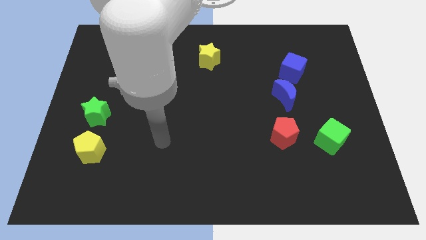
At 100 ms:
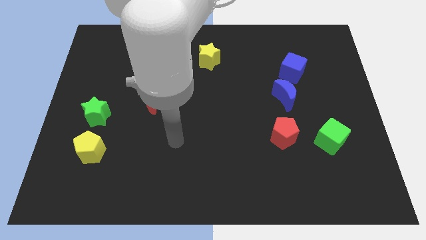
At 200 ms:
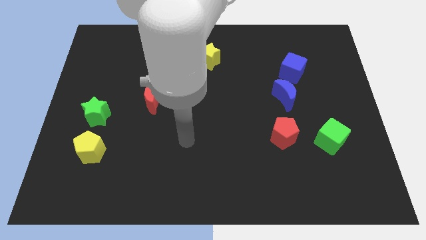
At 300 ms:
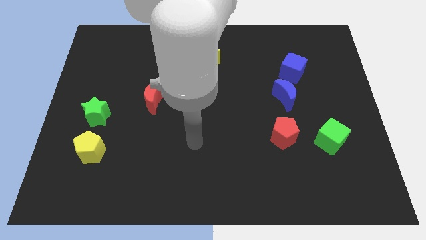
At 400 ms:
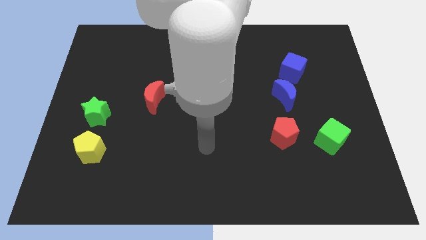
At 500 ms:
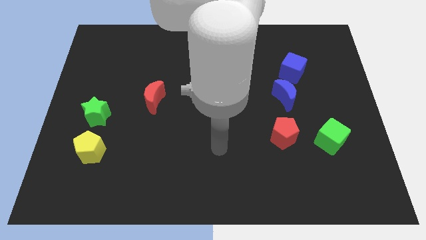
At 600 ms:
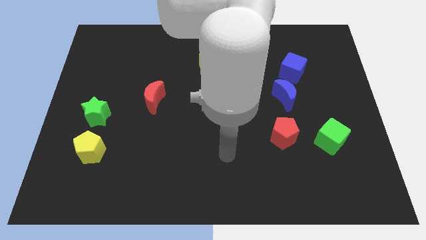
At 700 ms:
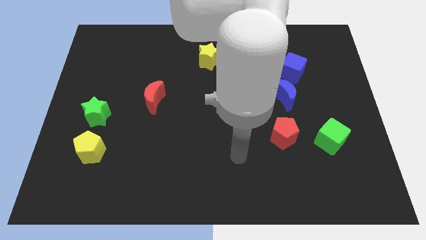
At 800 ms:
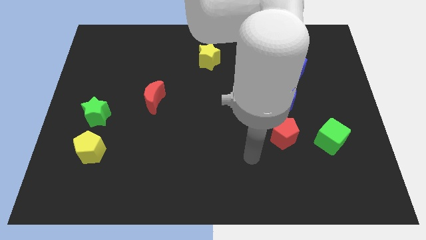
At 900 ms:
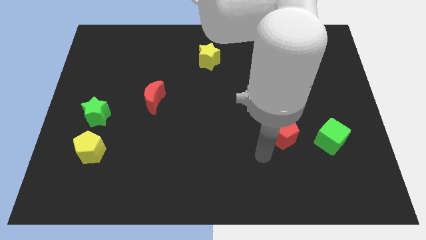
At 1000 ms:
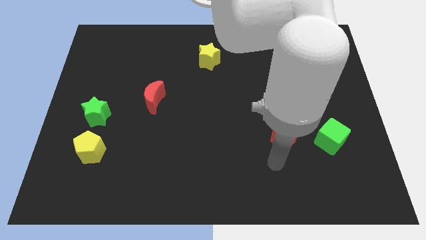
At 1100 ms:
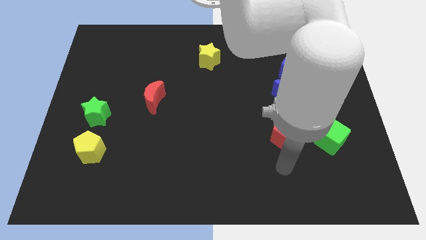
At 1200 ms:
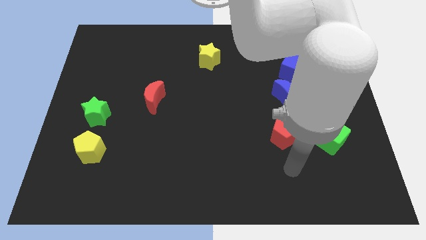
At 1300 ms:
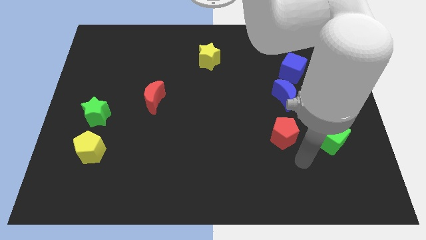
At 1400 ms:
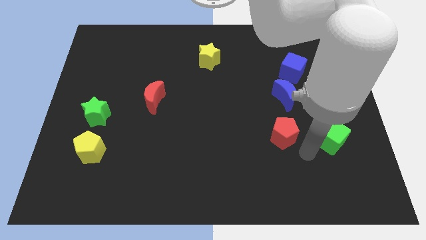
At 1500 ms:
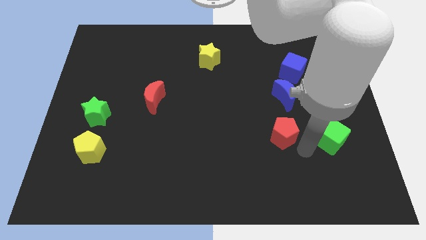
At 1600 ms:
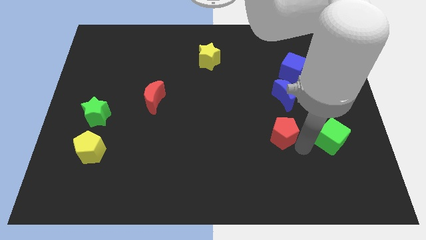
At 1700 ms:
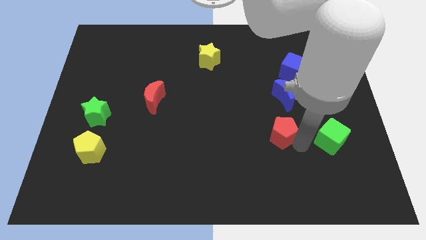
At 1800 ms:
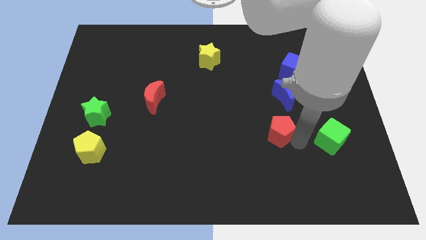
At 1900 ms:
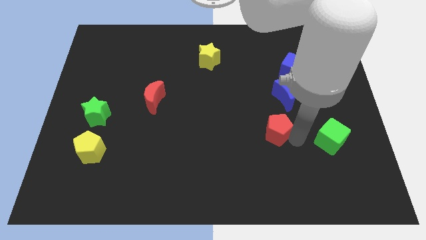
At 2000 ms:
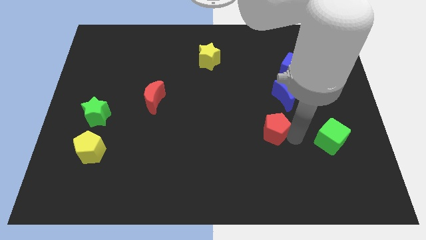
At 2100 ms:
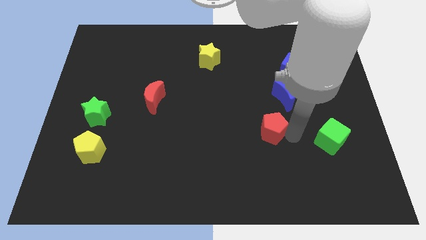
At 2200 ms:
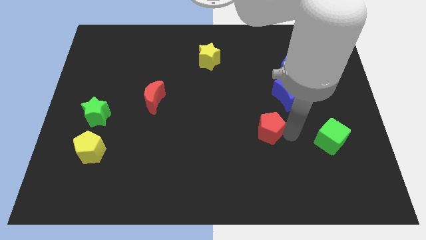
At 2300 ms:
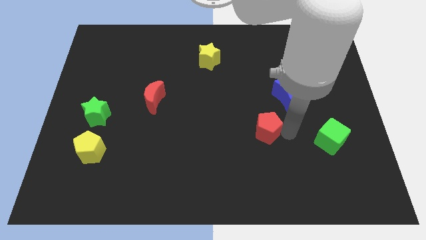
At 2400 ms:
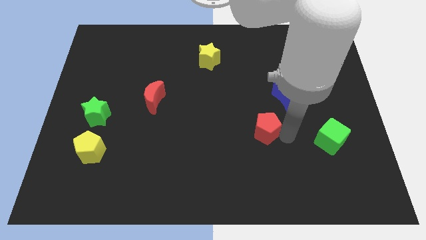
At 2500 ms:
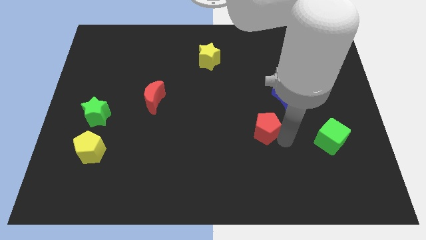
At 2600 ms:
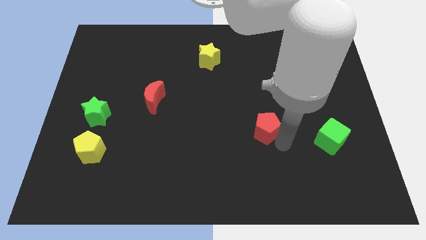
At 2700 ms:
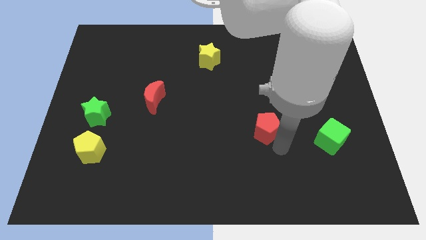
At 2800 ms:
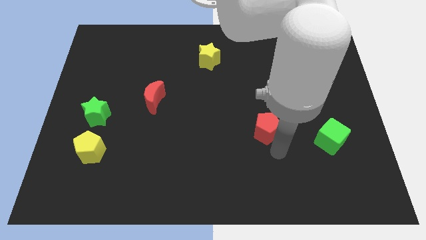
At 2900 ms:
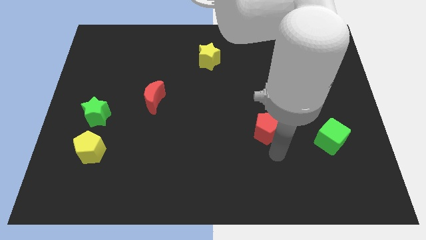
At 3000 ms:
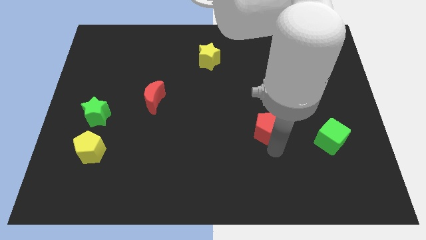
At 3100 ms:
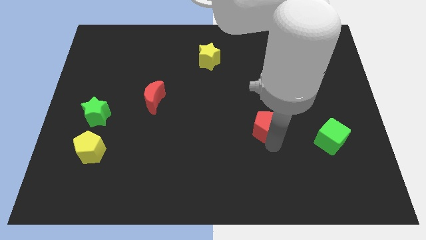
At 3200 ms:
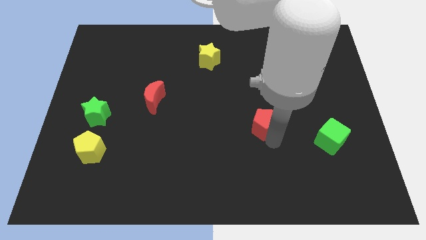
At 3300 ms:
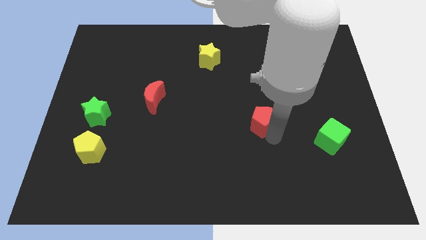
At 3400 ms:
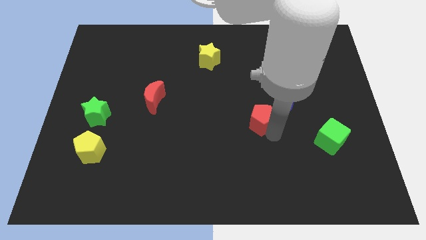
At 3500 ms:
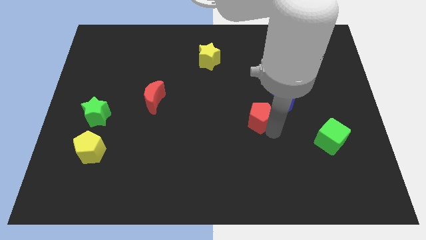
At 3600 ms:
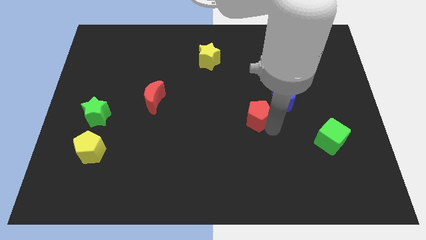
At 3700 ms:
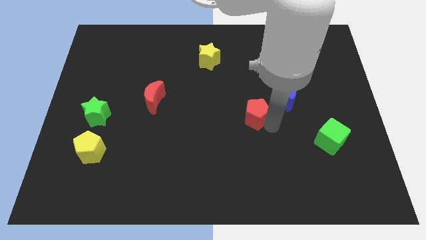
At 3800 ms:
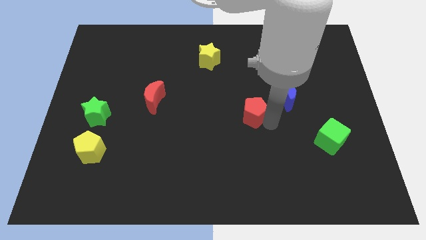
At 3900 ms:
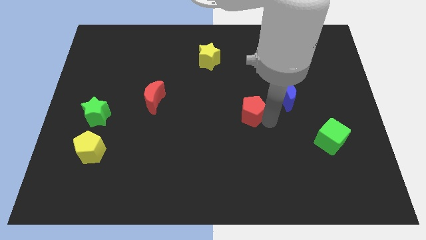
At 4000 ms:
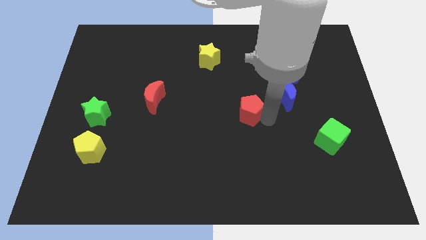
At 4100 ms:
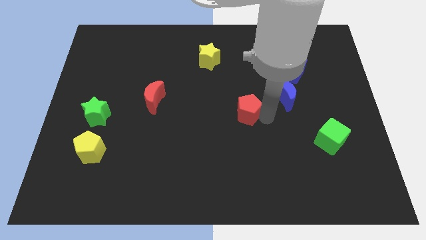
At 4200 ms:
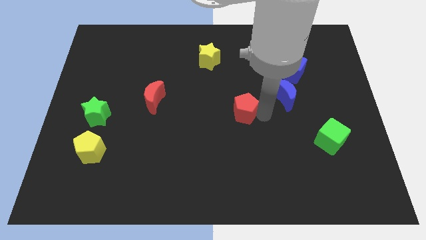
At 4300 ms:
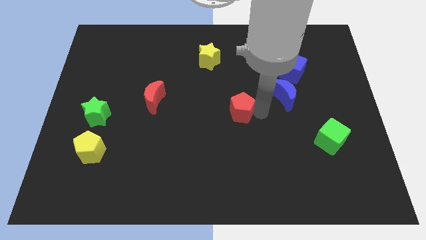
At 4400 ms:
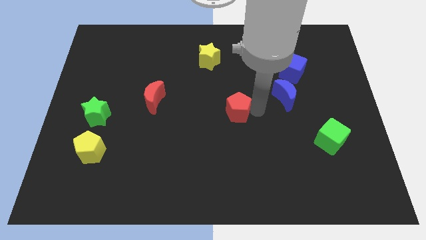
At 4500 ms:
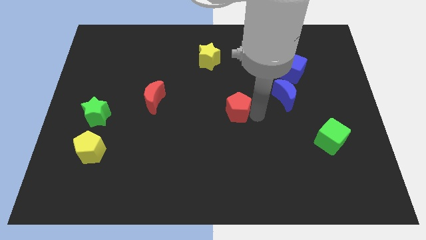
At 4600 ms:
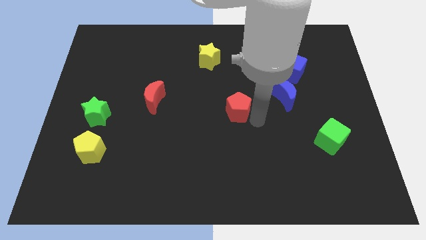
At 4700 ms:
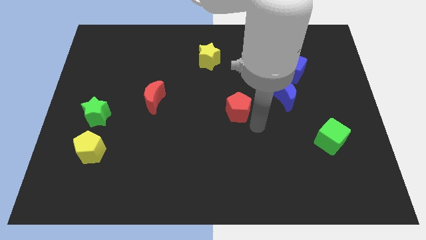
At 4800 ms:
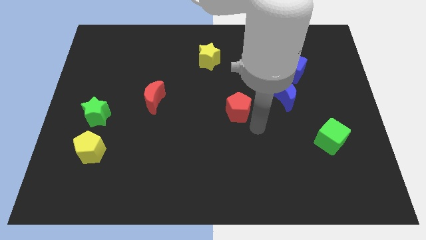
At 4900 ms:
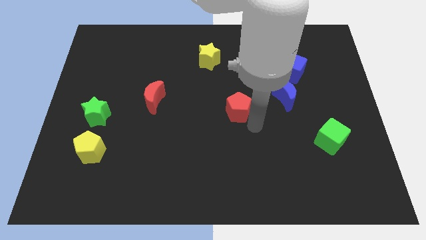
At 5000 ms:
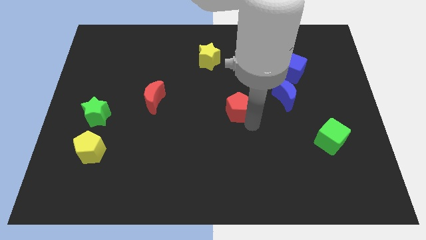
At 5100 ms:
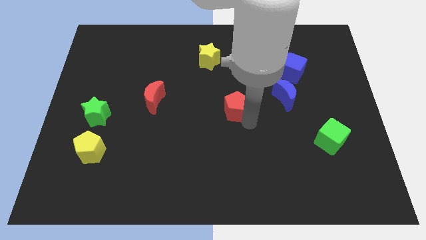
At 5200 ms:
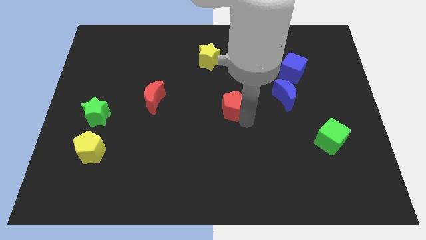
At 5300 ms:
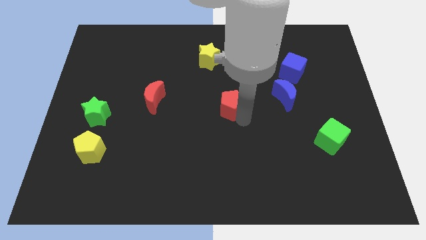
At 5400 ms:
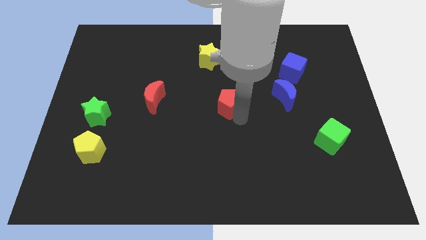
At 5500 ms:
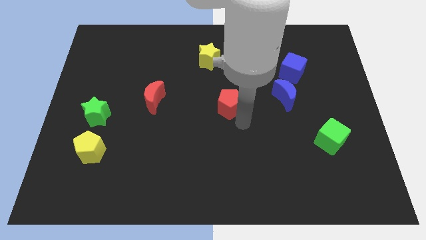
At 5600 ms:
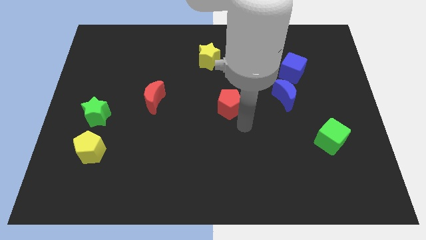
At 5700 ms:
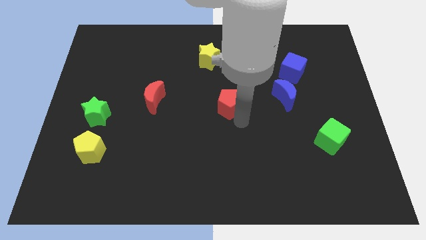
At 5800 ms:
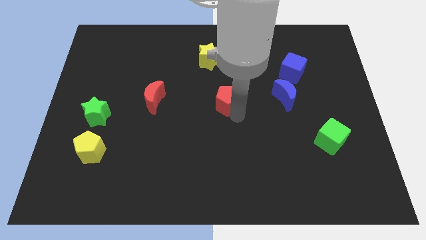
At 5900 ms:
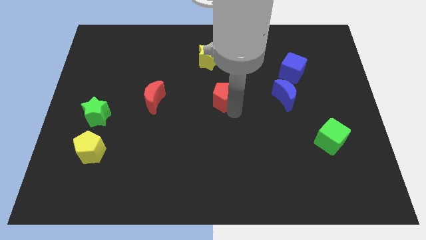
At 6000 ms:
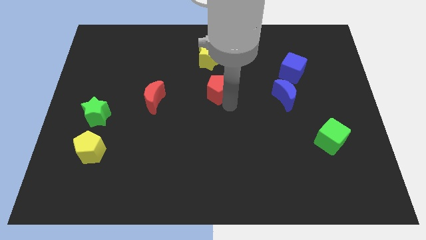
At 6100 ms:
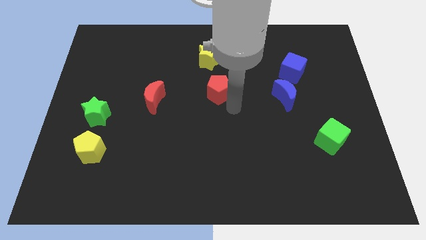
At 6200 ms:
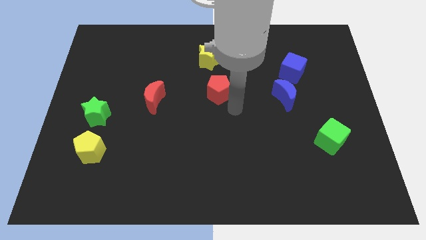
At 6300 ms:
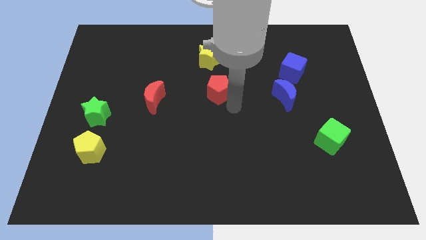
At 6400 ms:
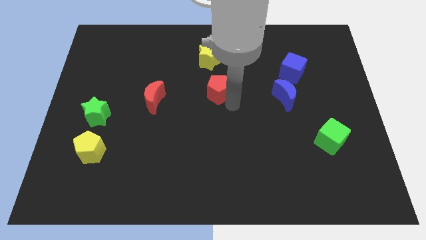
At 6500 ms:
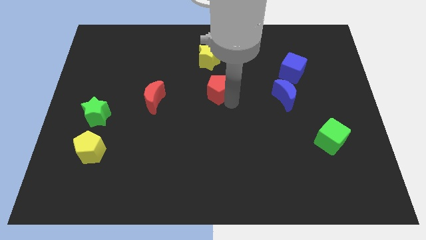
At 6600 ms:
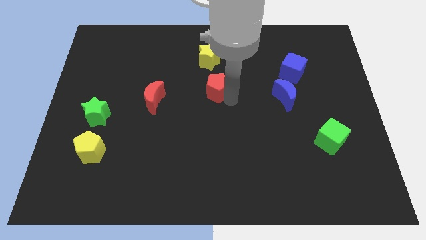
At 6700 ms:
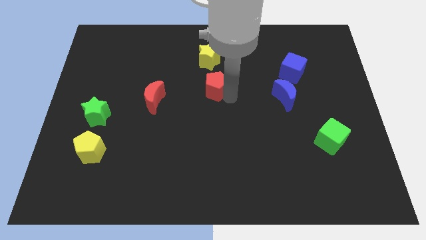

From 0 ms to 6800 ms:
push the red pentagon upwards and left diagonally

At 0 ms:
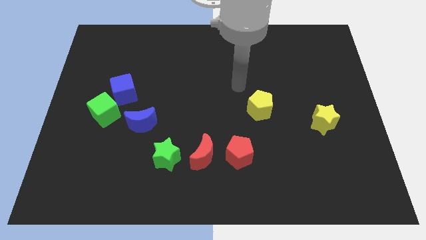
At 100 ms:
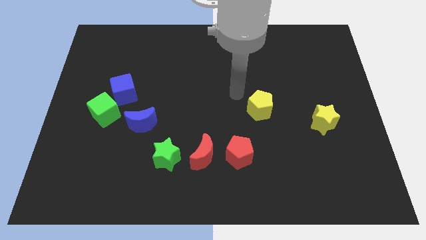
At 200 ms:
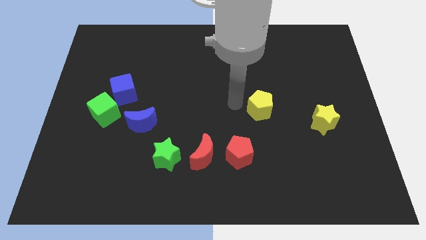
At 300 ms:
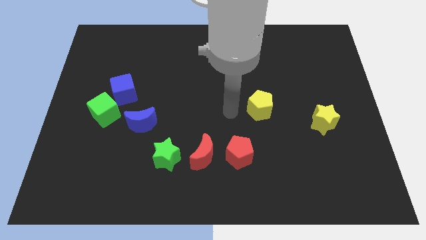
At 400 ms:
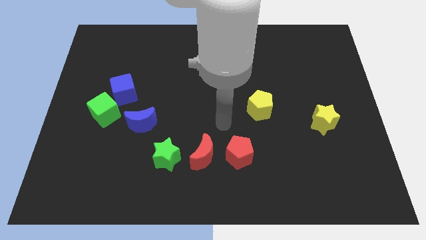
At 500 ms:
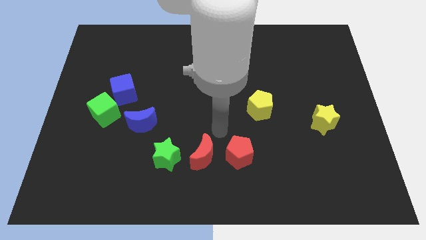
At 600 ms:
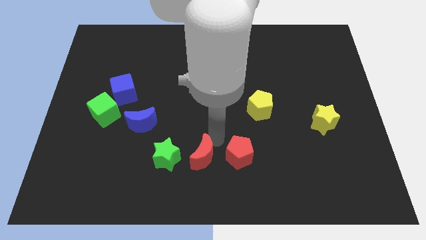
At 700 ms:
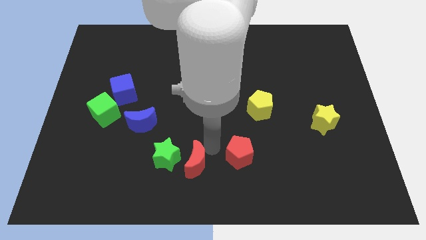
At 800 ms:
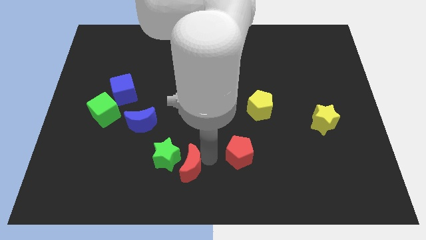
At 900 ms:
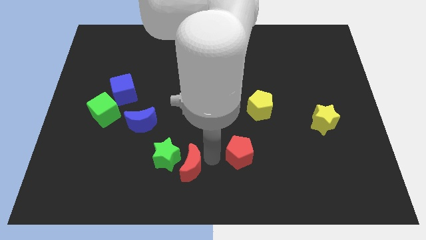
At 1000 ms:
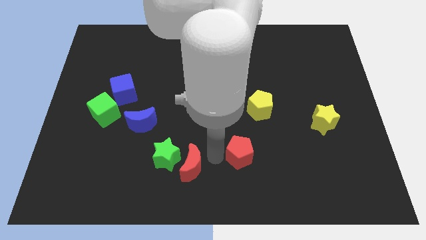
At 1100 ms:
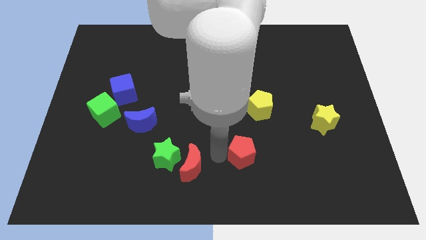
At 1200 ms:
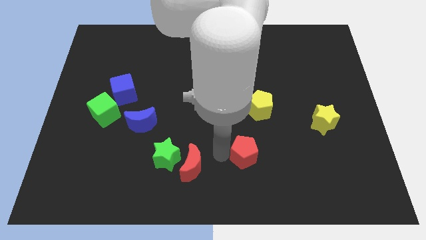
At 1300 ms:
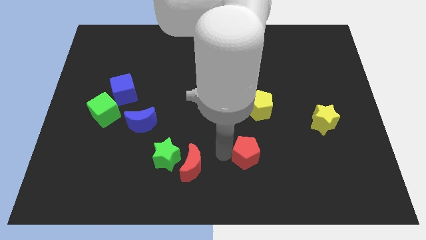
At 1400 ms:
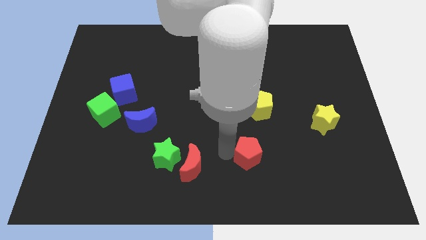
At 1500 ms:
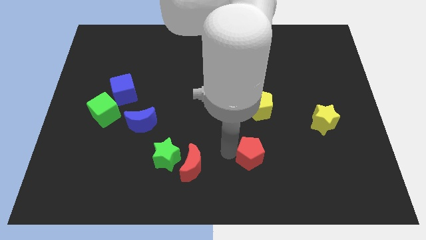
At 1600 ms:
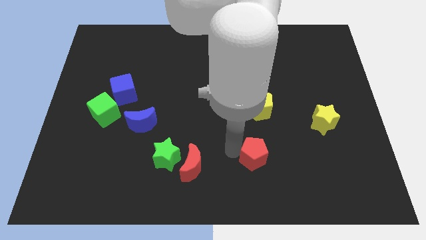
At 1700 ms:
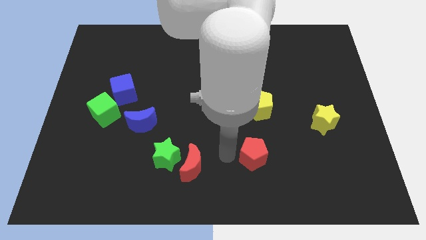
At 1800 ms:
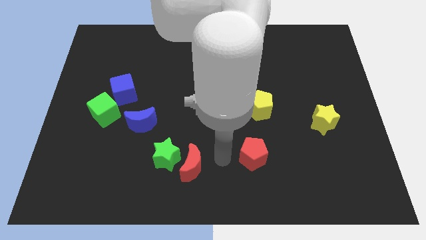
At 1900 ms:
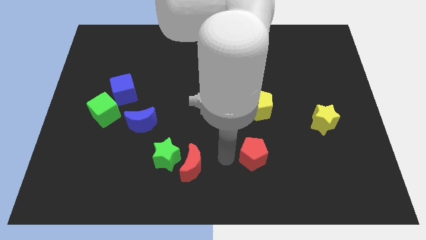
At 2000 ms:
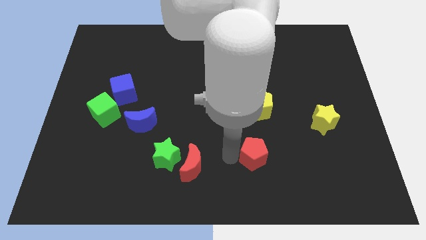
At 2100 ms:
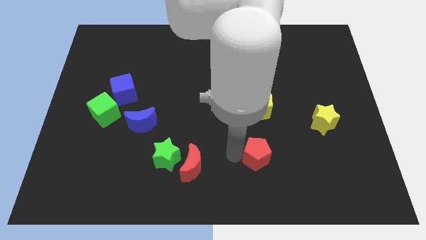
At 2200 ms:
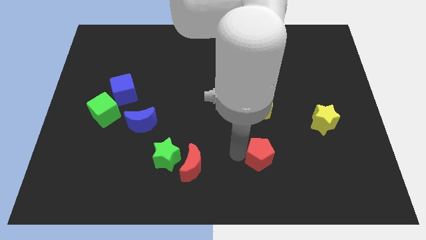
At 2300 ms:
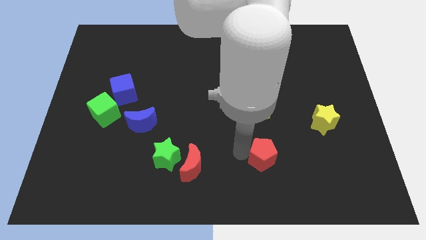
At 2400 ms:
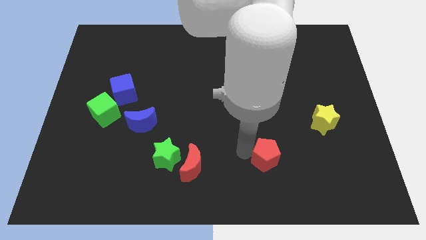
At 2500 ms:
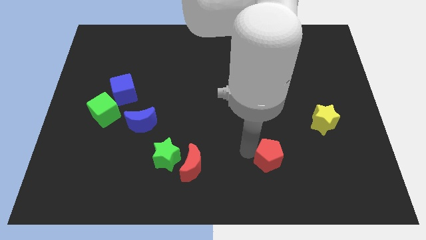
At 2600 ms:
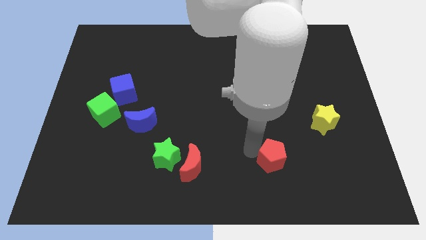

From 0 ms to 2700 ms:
move the red pentagon a little bit right
